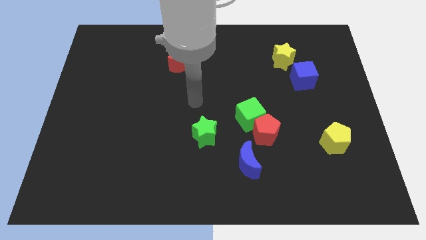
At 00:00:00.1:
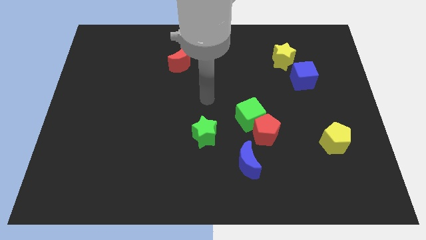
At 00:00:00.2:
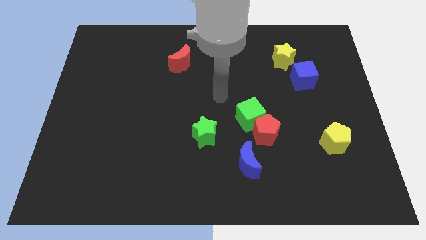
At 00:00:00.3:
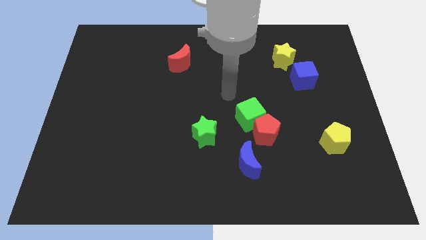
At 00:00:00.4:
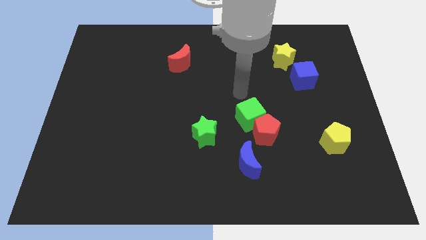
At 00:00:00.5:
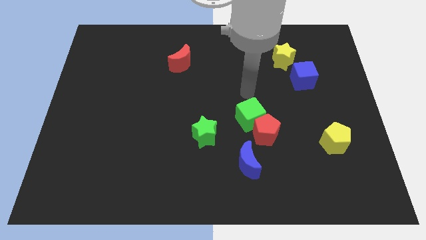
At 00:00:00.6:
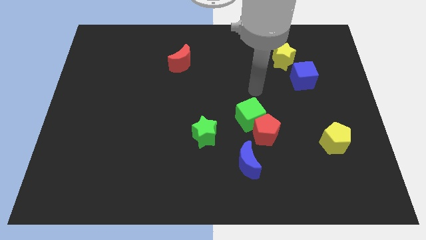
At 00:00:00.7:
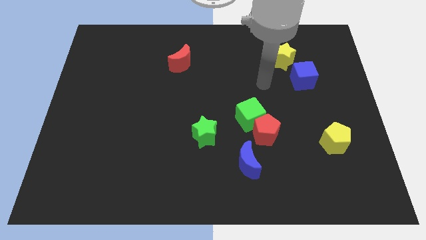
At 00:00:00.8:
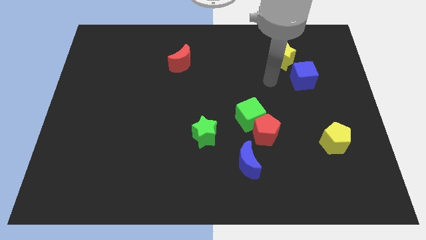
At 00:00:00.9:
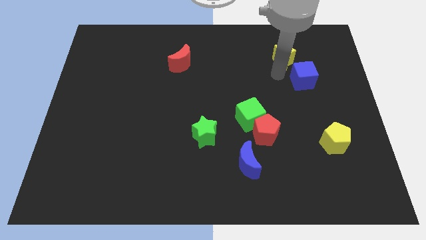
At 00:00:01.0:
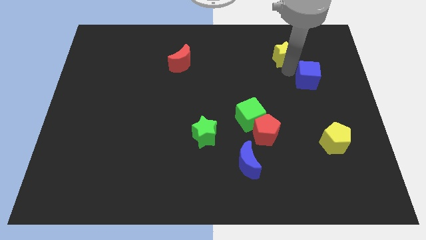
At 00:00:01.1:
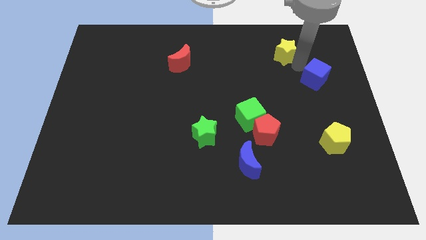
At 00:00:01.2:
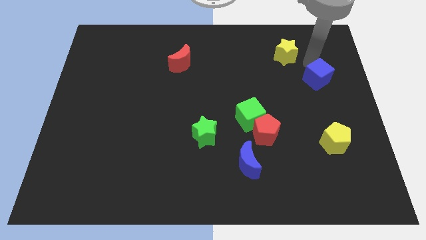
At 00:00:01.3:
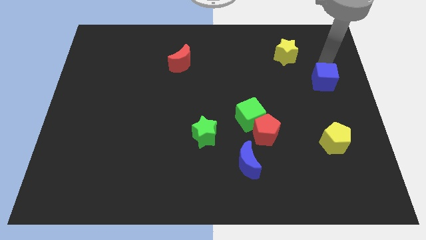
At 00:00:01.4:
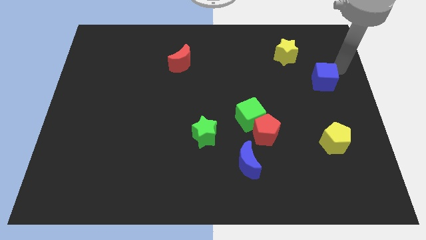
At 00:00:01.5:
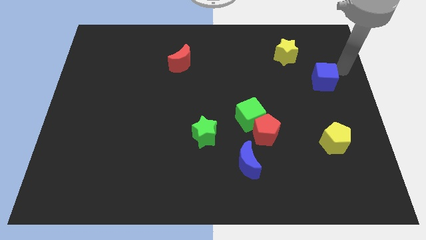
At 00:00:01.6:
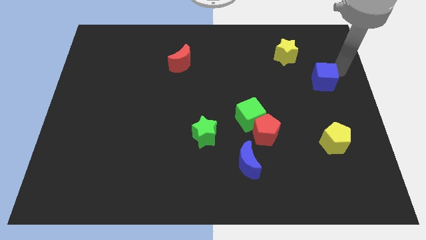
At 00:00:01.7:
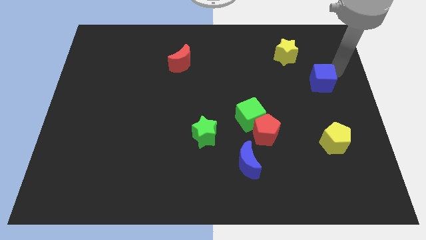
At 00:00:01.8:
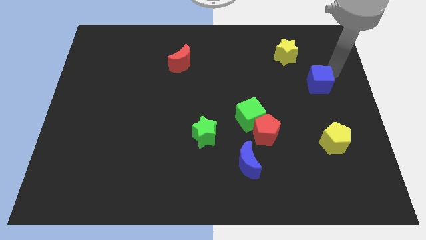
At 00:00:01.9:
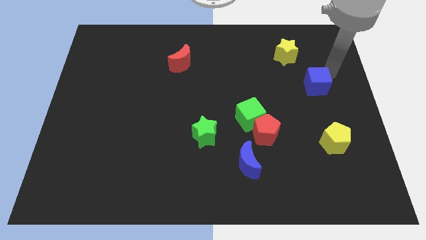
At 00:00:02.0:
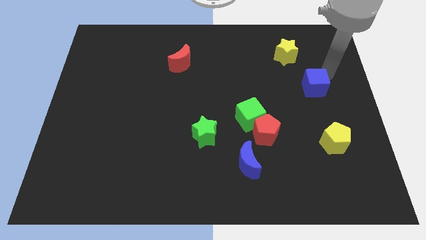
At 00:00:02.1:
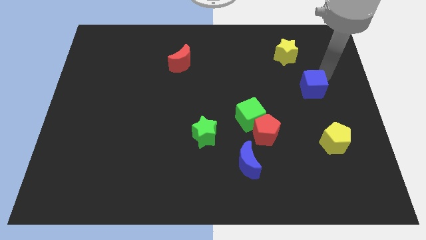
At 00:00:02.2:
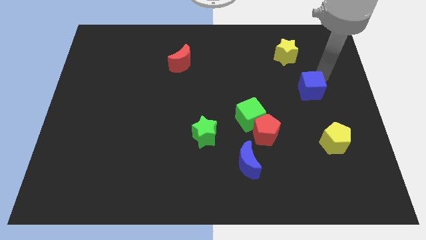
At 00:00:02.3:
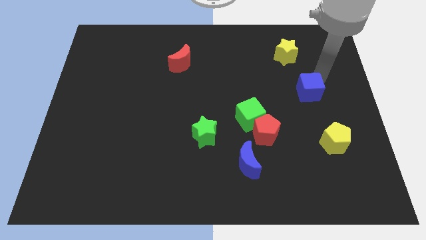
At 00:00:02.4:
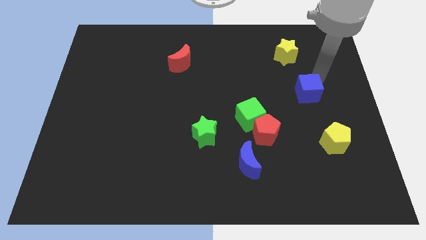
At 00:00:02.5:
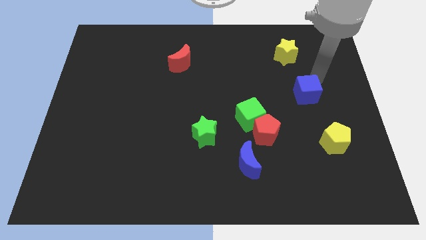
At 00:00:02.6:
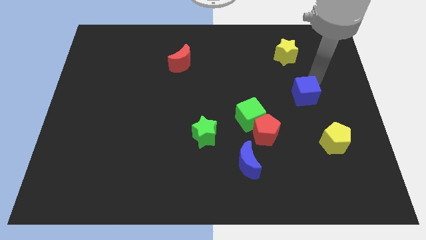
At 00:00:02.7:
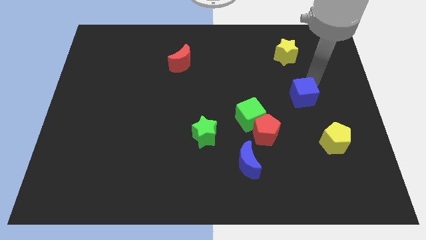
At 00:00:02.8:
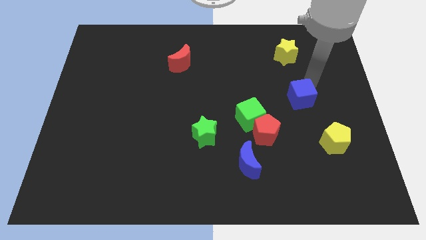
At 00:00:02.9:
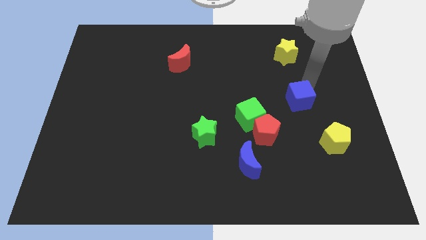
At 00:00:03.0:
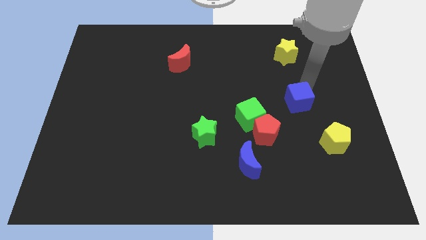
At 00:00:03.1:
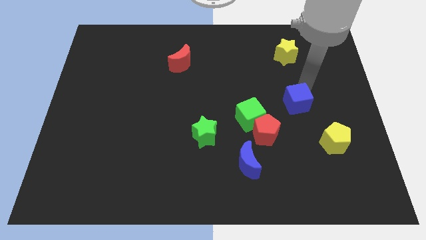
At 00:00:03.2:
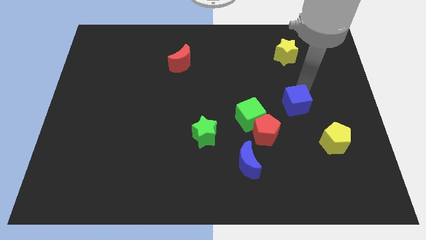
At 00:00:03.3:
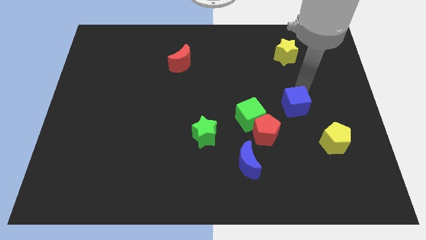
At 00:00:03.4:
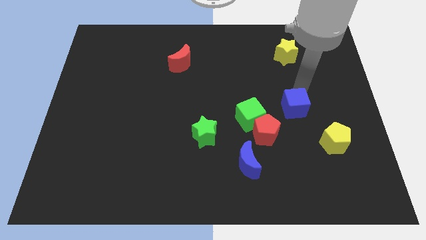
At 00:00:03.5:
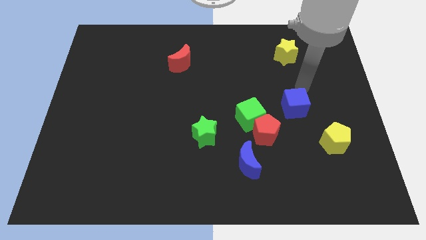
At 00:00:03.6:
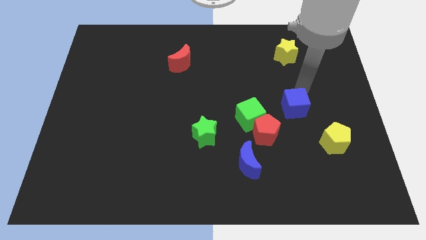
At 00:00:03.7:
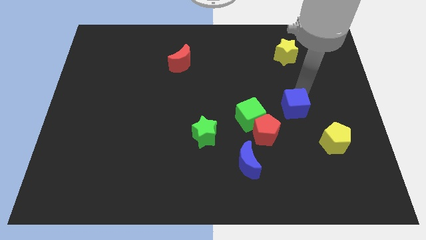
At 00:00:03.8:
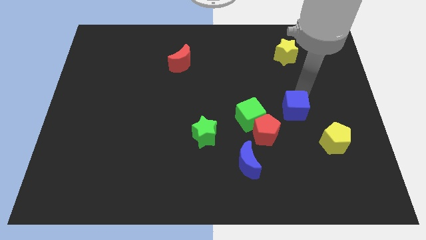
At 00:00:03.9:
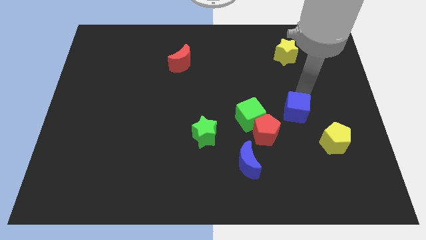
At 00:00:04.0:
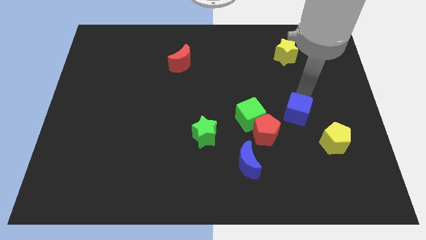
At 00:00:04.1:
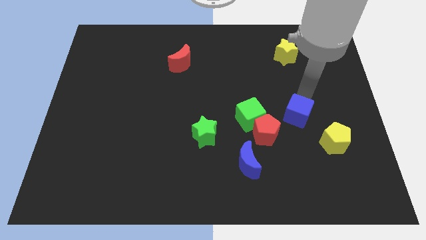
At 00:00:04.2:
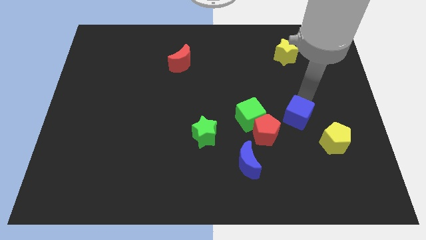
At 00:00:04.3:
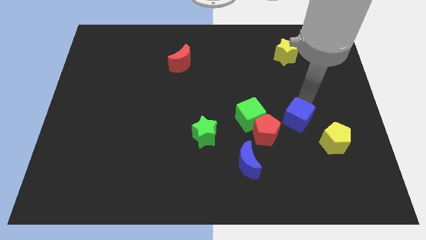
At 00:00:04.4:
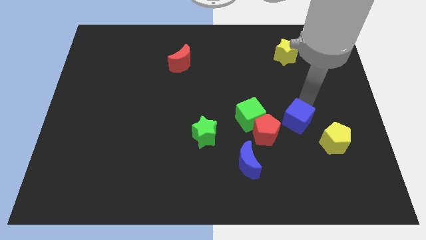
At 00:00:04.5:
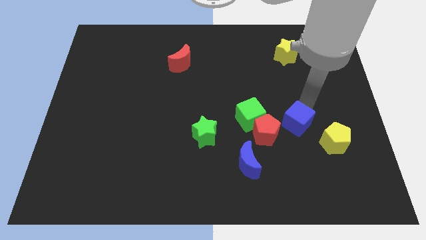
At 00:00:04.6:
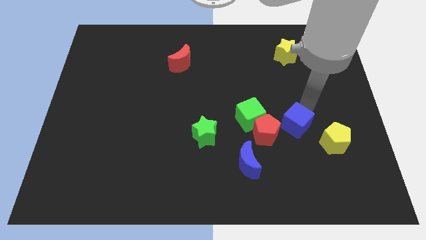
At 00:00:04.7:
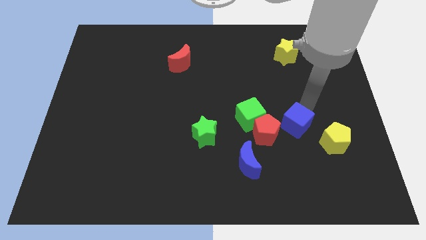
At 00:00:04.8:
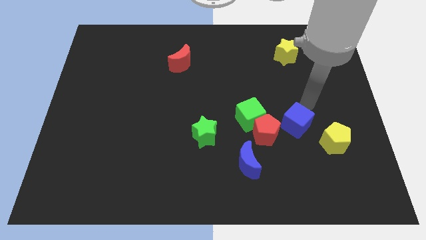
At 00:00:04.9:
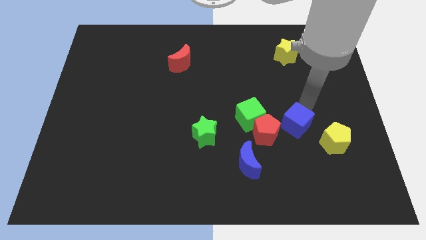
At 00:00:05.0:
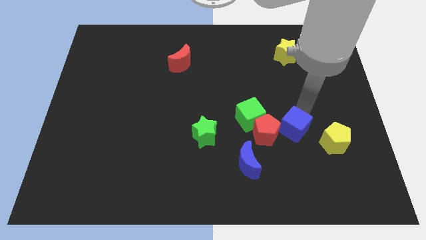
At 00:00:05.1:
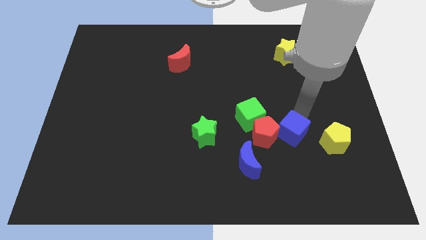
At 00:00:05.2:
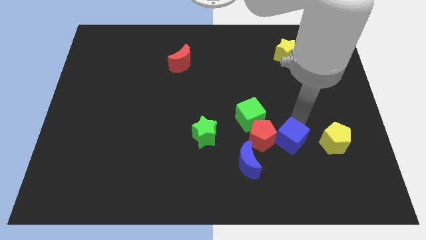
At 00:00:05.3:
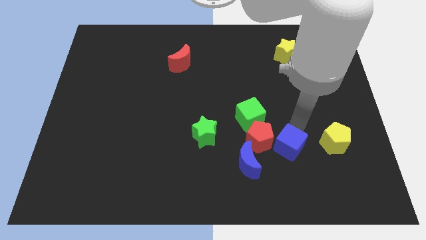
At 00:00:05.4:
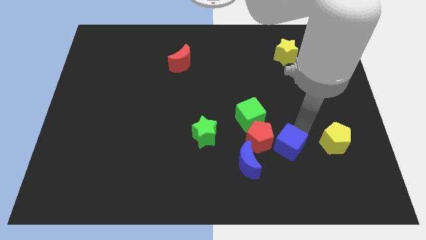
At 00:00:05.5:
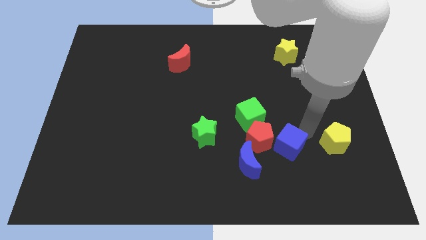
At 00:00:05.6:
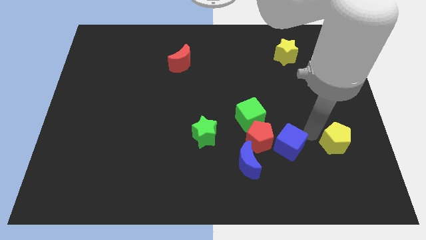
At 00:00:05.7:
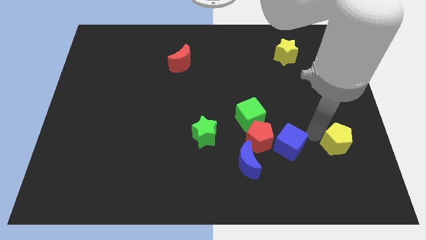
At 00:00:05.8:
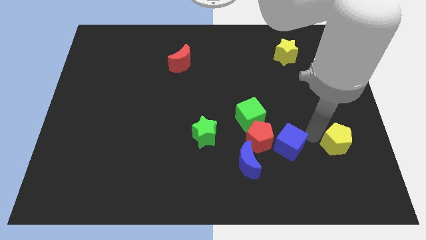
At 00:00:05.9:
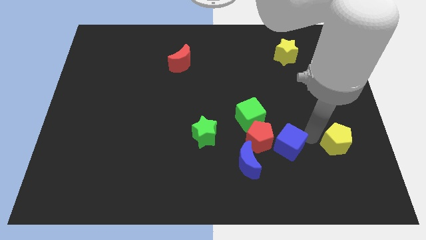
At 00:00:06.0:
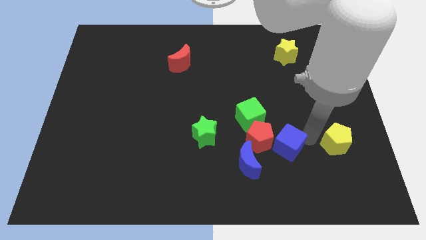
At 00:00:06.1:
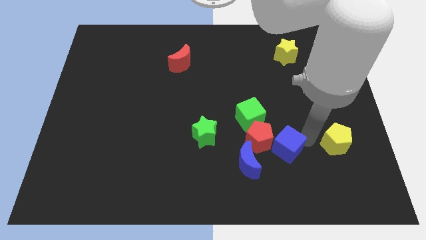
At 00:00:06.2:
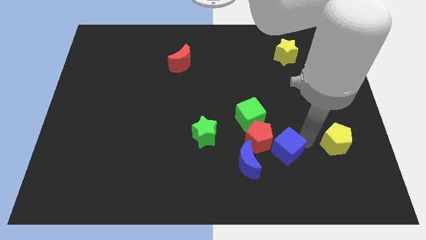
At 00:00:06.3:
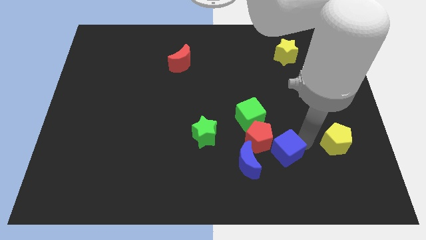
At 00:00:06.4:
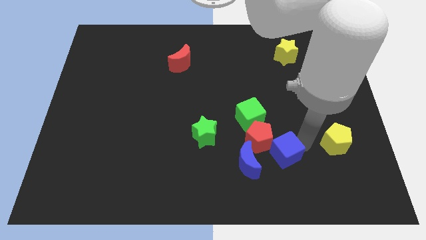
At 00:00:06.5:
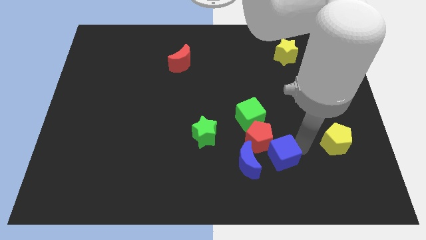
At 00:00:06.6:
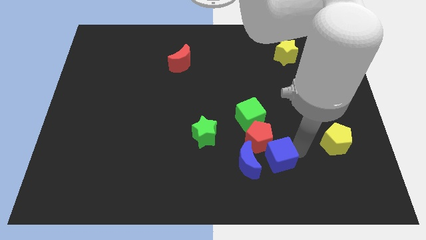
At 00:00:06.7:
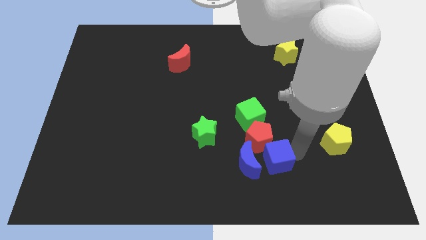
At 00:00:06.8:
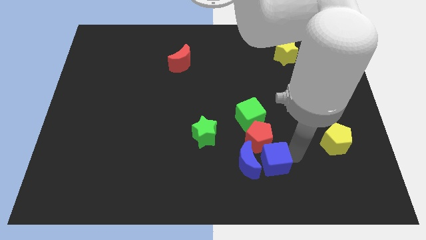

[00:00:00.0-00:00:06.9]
slide the blue cube next to the blue moon
